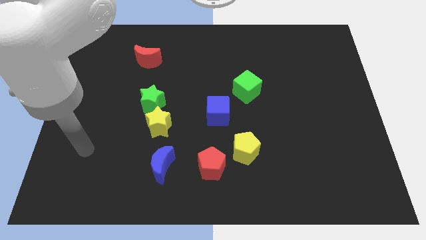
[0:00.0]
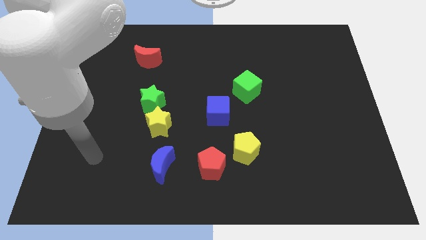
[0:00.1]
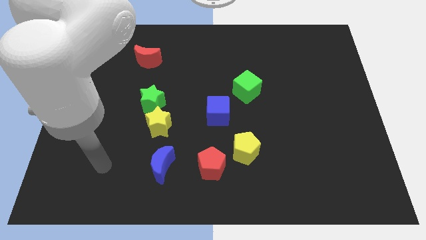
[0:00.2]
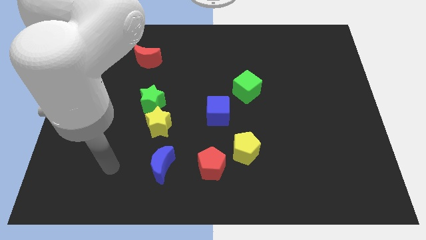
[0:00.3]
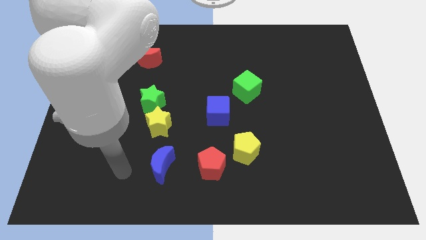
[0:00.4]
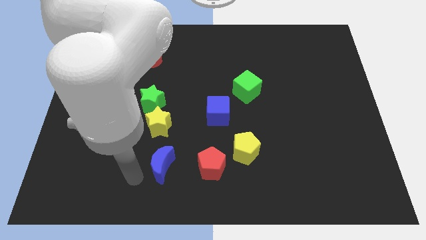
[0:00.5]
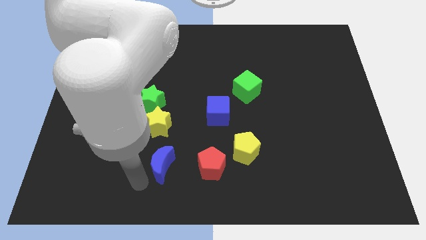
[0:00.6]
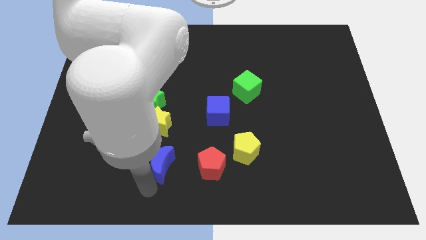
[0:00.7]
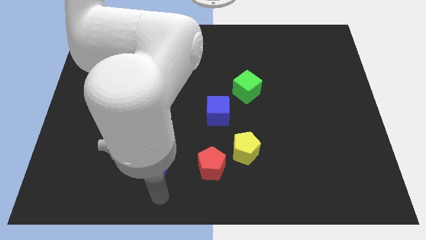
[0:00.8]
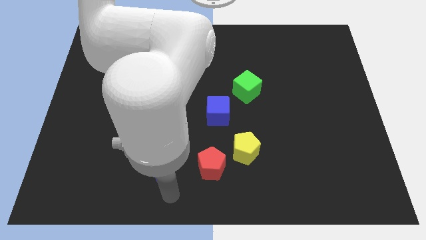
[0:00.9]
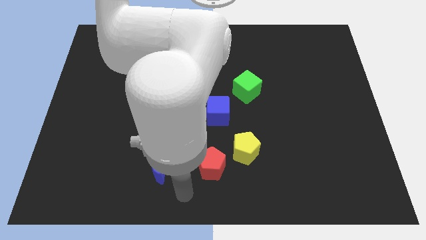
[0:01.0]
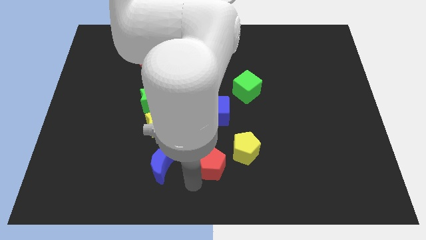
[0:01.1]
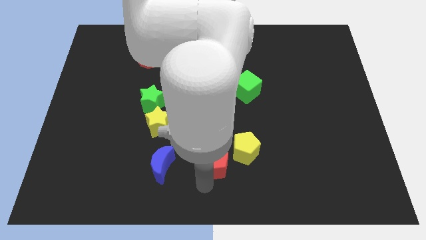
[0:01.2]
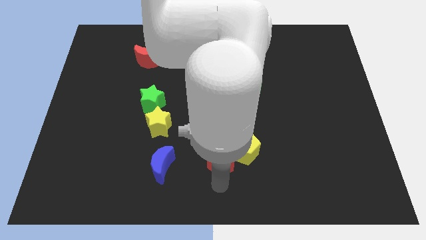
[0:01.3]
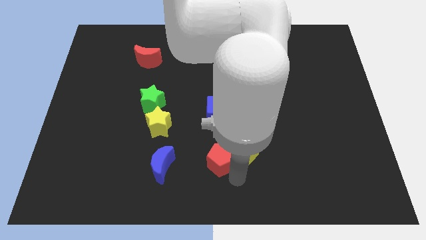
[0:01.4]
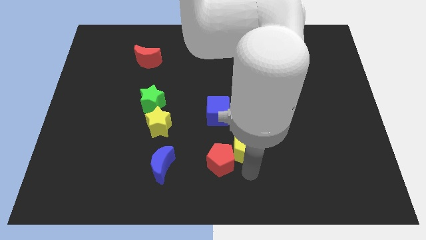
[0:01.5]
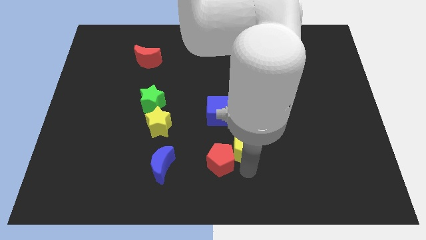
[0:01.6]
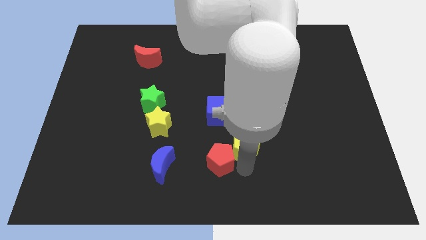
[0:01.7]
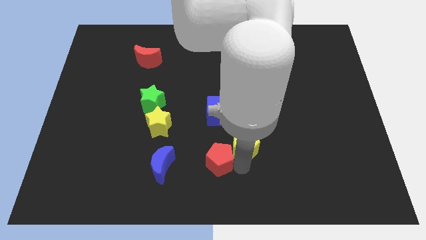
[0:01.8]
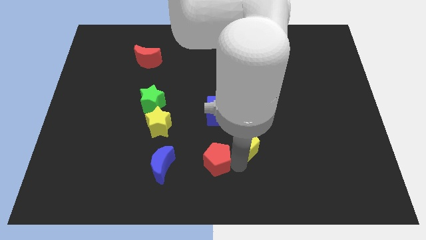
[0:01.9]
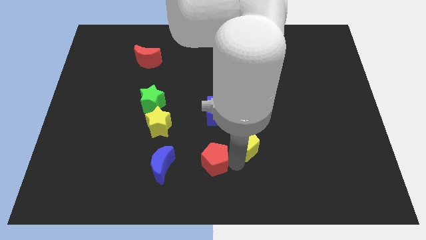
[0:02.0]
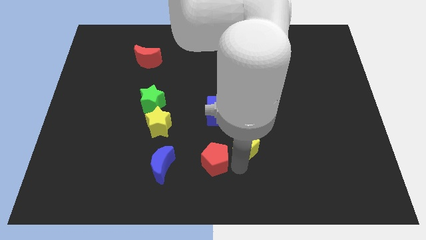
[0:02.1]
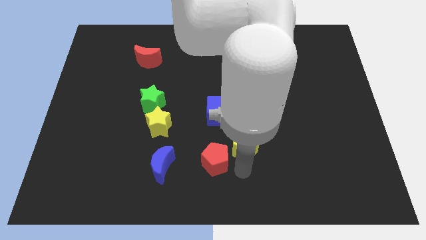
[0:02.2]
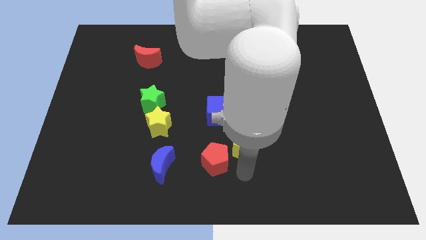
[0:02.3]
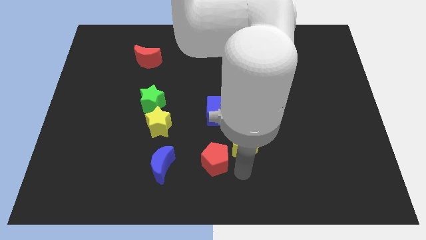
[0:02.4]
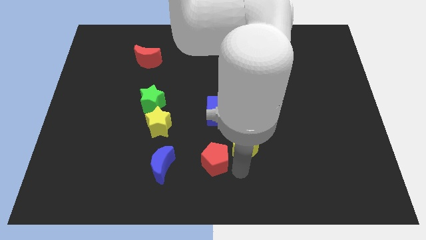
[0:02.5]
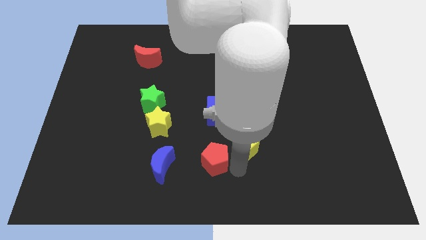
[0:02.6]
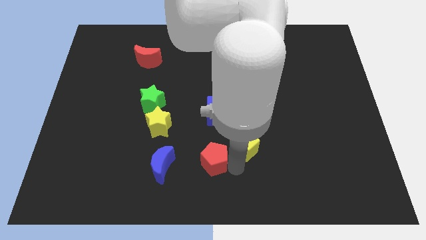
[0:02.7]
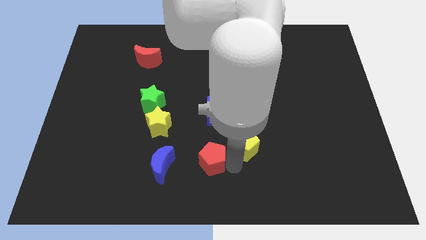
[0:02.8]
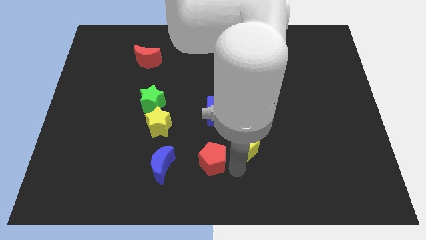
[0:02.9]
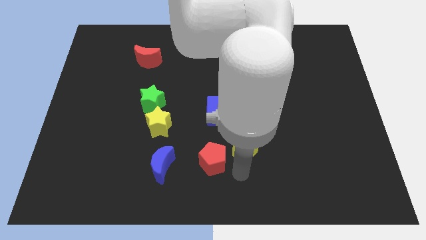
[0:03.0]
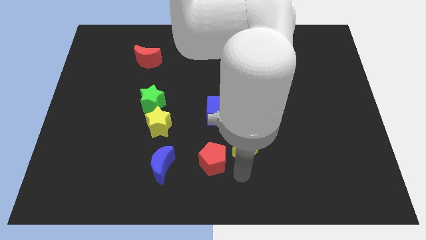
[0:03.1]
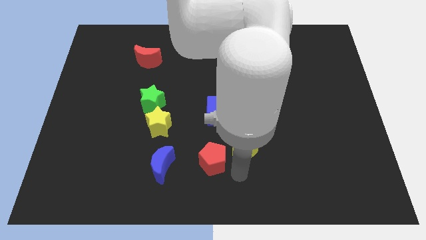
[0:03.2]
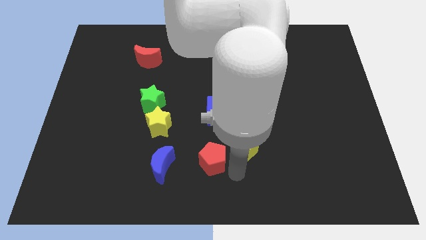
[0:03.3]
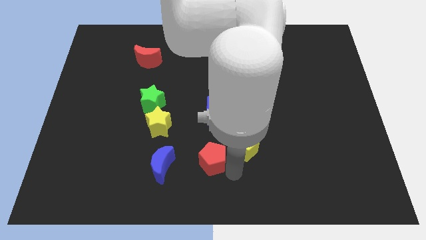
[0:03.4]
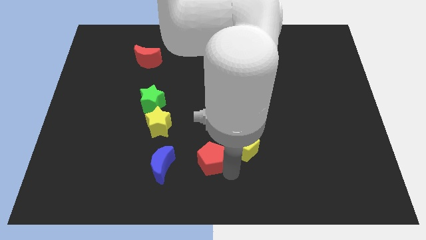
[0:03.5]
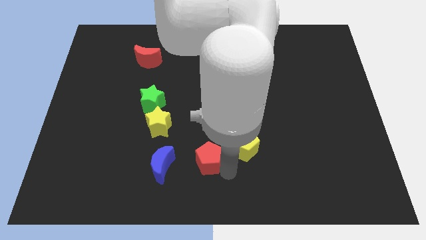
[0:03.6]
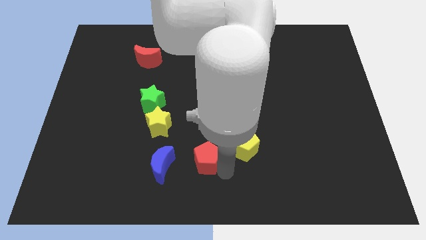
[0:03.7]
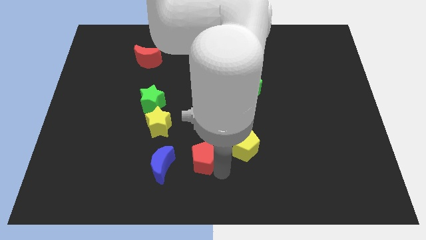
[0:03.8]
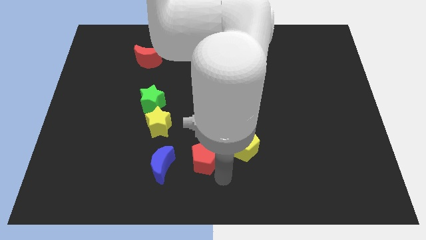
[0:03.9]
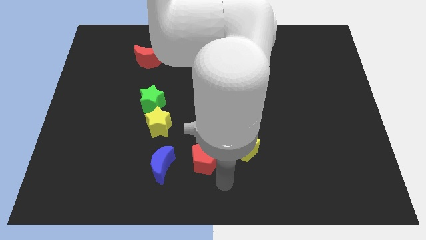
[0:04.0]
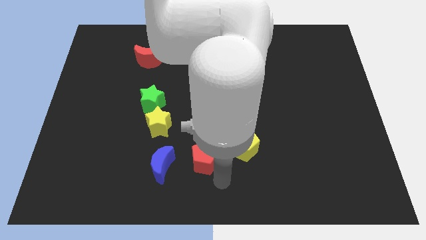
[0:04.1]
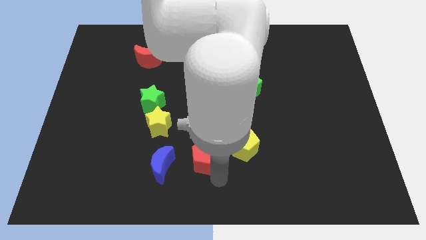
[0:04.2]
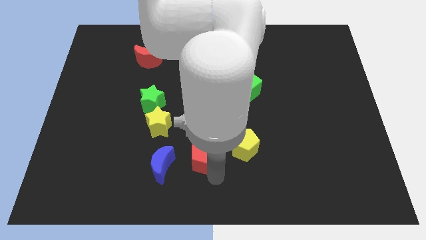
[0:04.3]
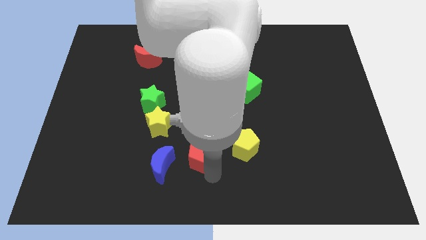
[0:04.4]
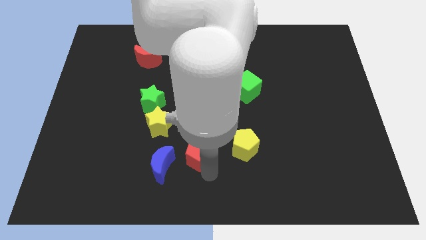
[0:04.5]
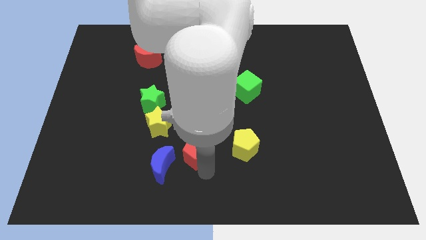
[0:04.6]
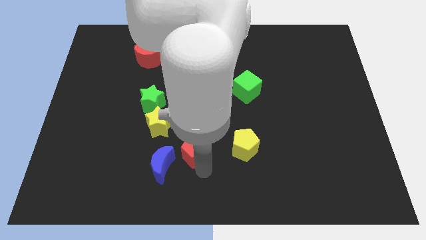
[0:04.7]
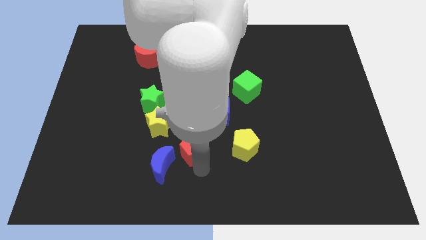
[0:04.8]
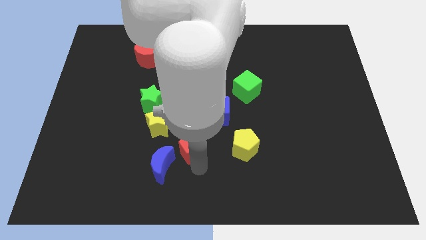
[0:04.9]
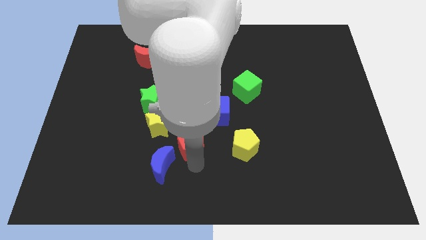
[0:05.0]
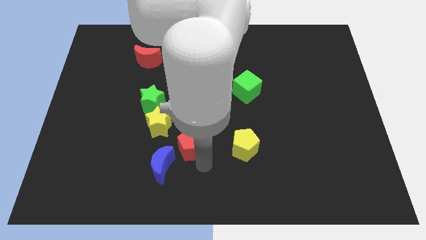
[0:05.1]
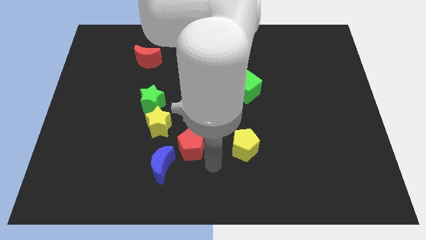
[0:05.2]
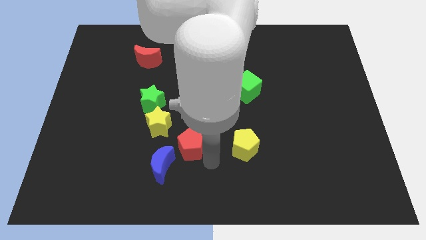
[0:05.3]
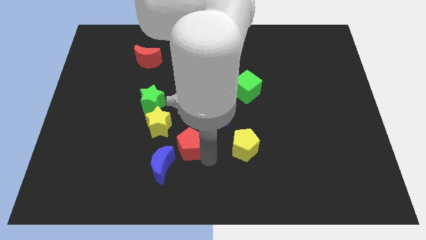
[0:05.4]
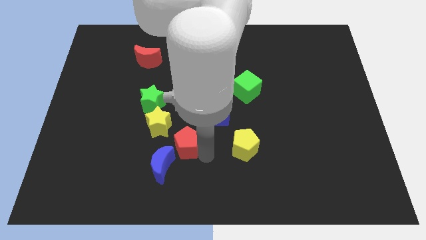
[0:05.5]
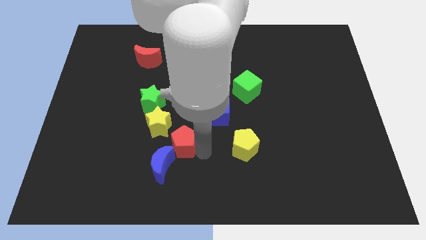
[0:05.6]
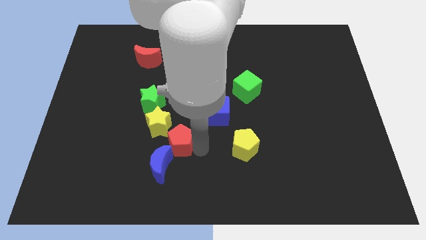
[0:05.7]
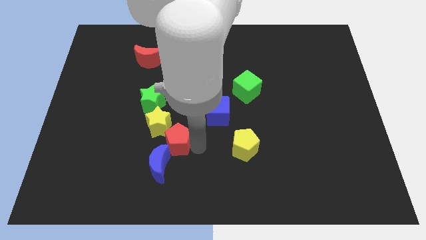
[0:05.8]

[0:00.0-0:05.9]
put the red pentagon close to the yellow star

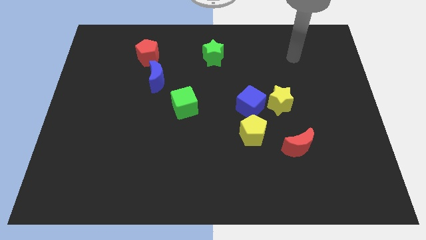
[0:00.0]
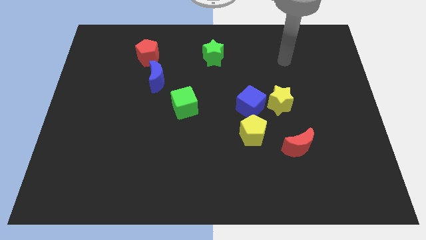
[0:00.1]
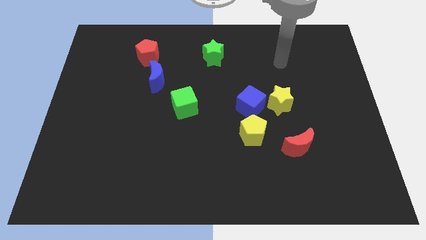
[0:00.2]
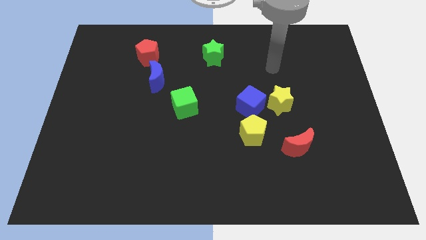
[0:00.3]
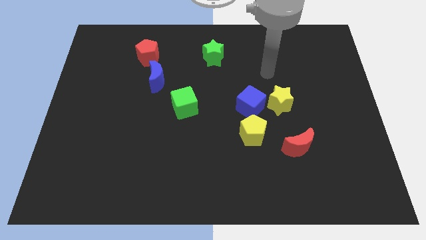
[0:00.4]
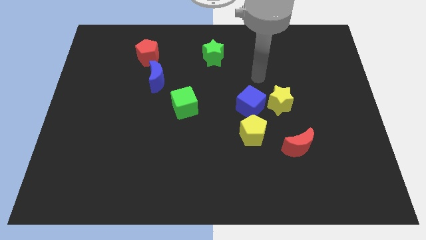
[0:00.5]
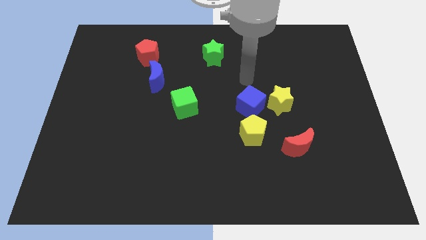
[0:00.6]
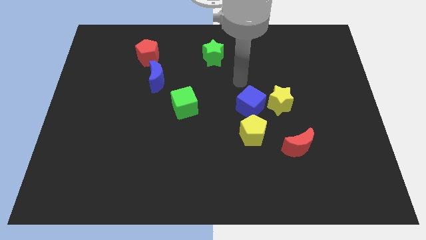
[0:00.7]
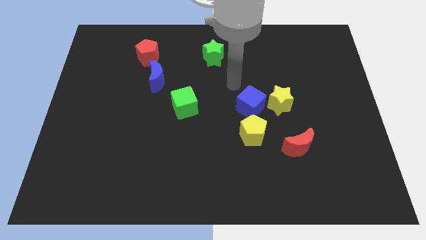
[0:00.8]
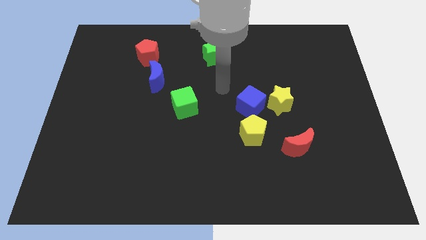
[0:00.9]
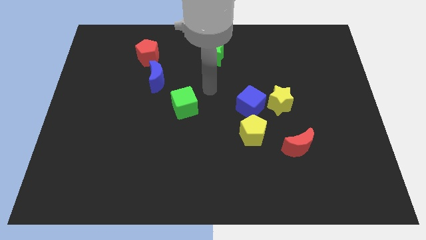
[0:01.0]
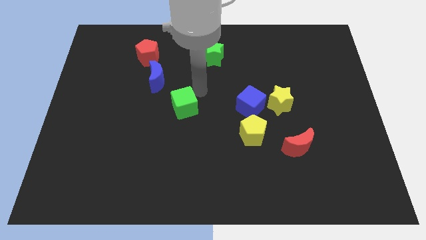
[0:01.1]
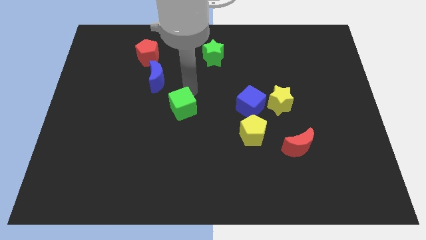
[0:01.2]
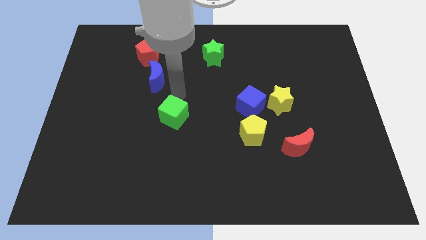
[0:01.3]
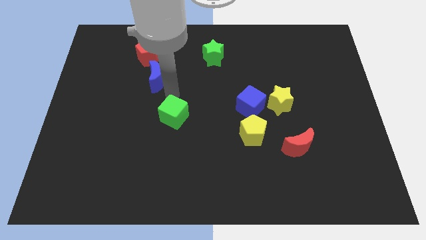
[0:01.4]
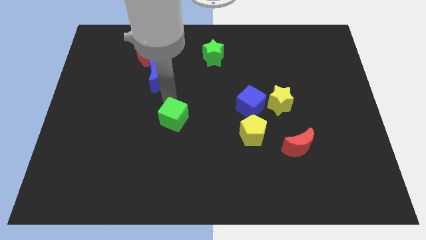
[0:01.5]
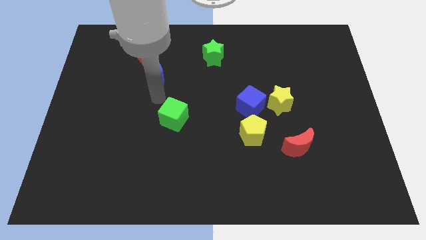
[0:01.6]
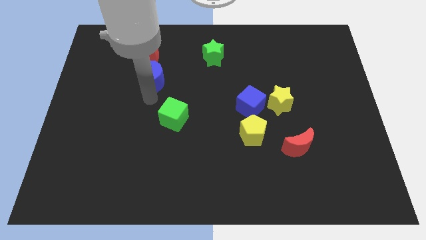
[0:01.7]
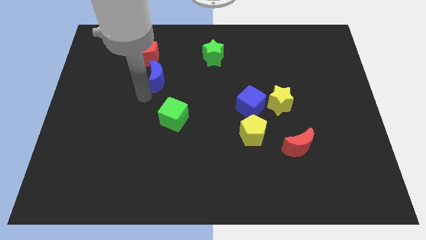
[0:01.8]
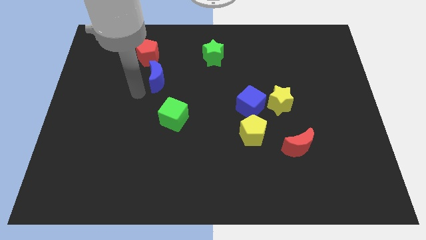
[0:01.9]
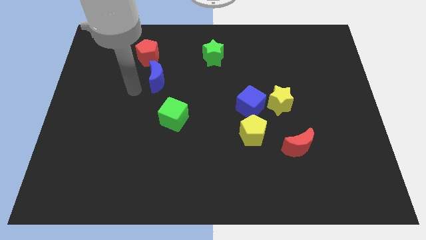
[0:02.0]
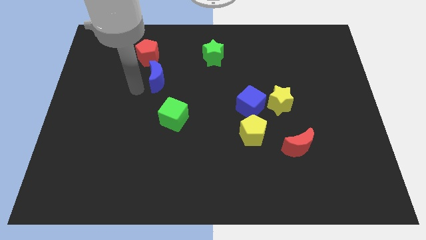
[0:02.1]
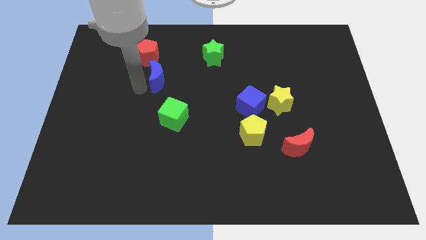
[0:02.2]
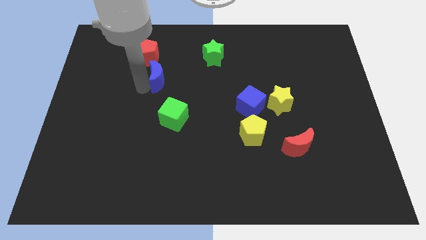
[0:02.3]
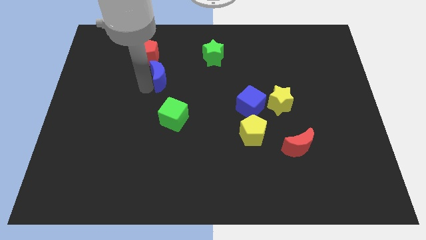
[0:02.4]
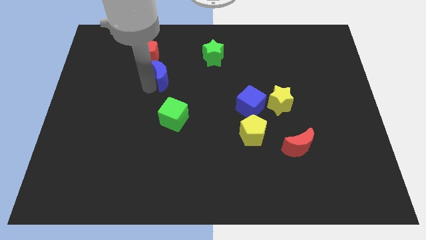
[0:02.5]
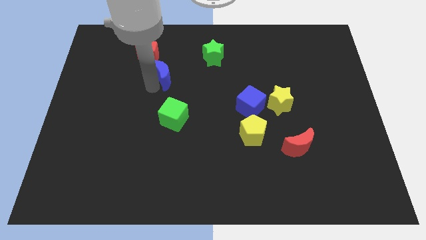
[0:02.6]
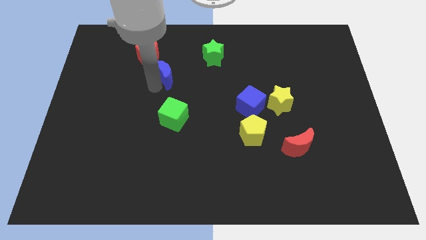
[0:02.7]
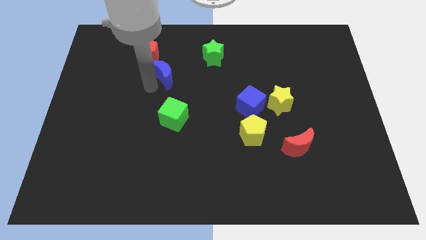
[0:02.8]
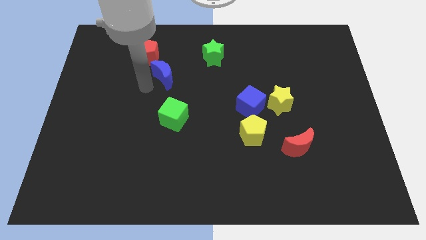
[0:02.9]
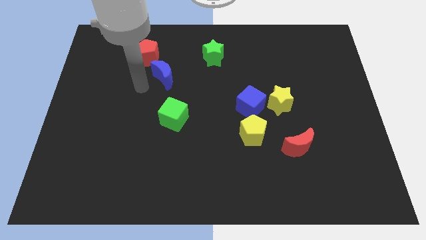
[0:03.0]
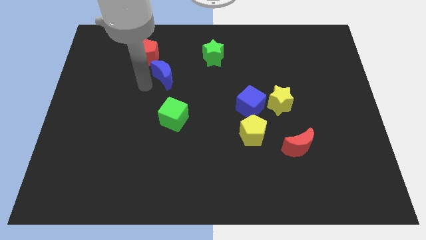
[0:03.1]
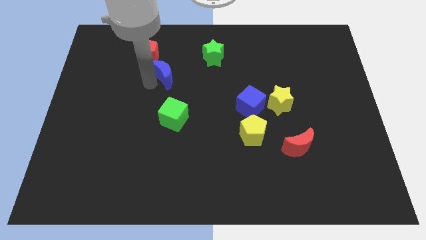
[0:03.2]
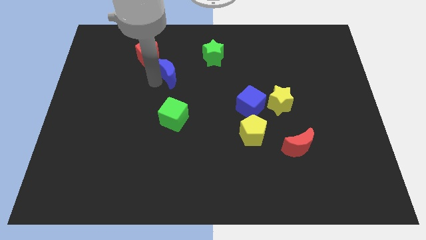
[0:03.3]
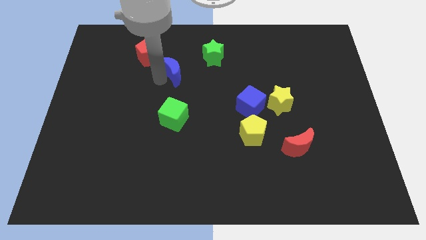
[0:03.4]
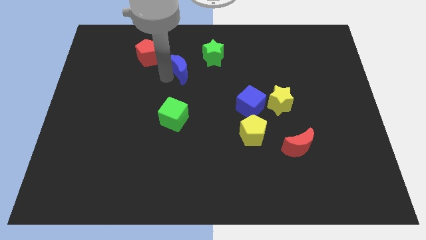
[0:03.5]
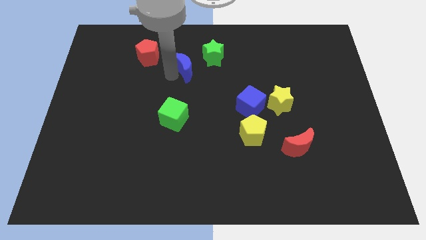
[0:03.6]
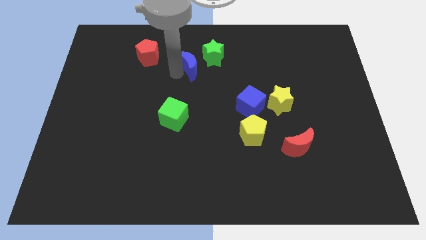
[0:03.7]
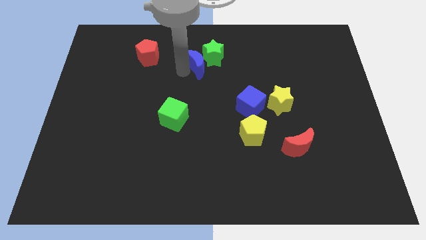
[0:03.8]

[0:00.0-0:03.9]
slide the blue moon next to the green star
